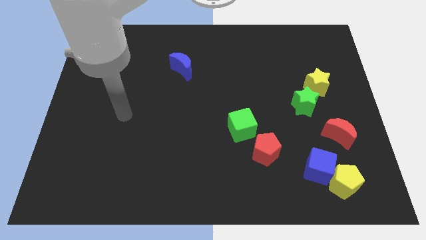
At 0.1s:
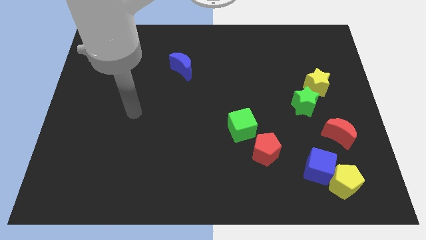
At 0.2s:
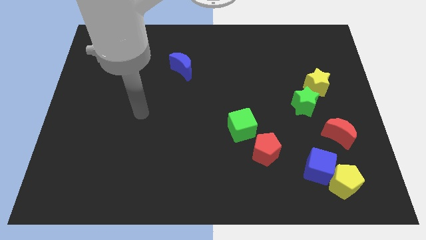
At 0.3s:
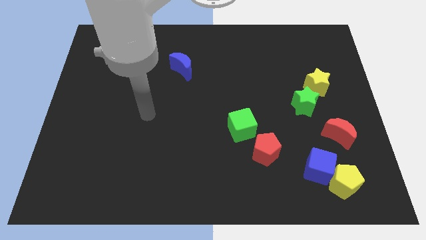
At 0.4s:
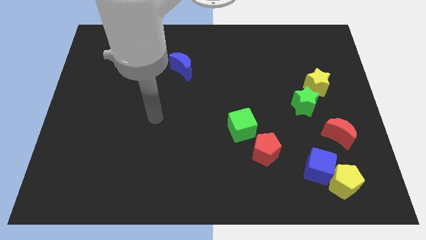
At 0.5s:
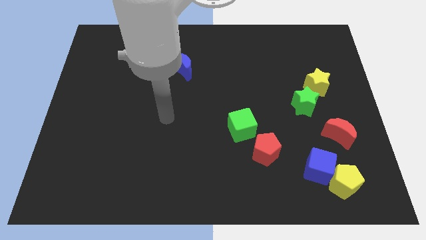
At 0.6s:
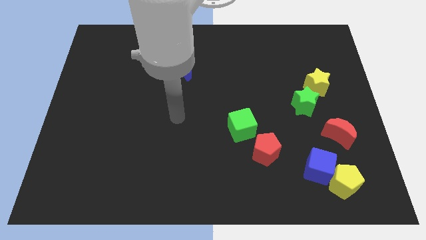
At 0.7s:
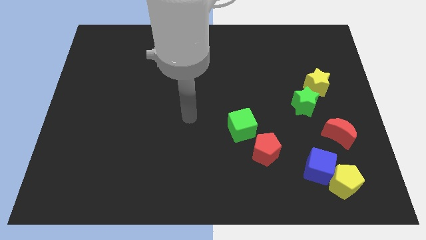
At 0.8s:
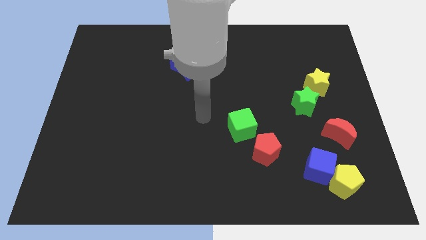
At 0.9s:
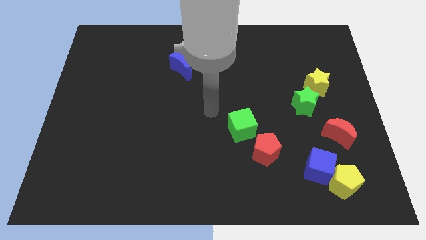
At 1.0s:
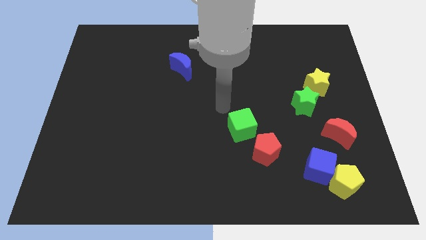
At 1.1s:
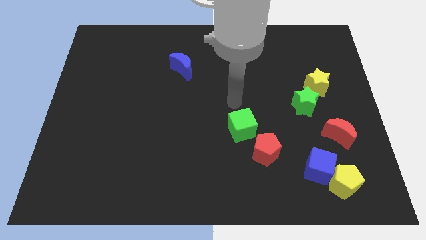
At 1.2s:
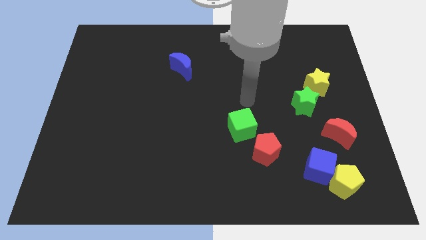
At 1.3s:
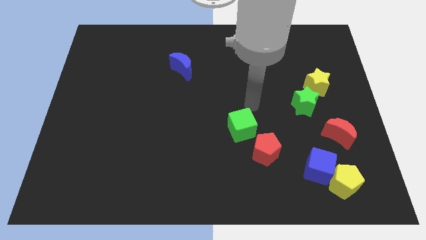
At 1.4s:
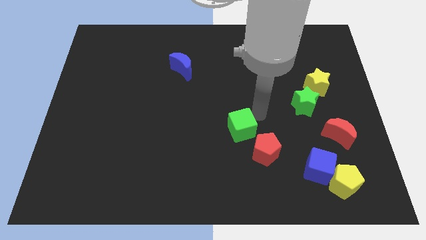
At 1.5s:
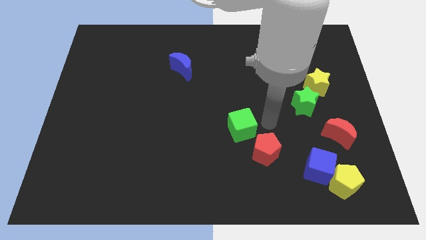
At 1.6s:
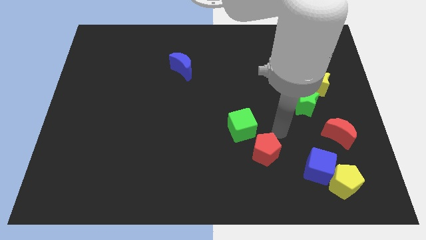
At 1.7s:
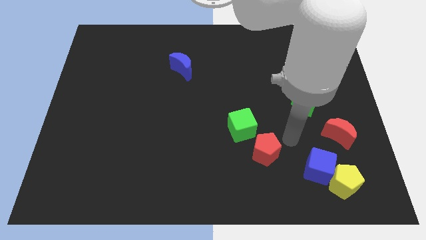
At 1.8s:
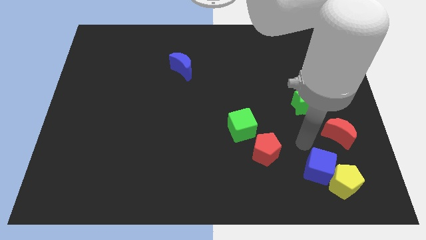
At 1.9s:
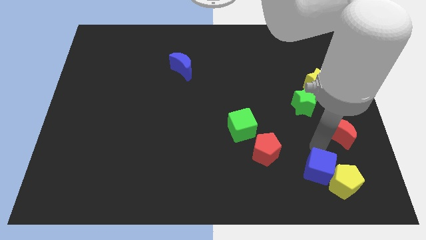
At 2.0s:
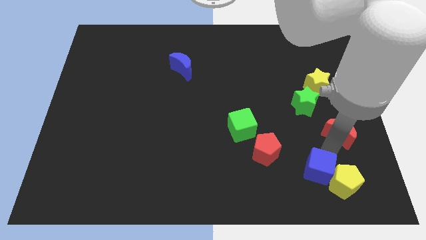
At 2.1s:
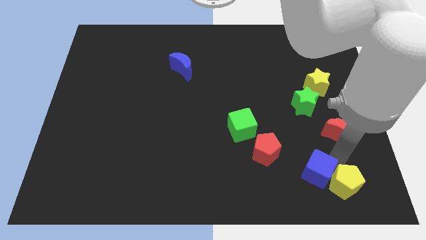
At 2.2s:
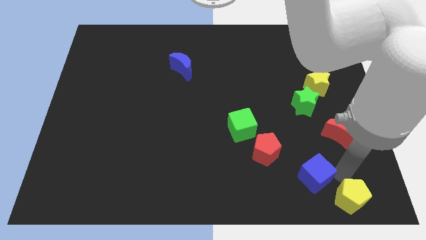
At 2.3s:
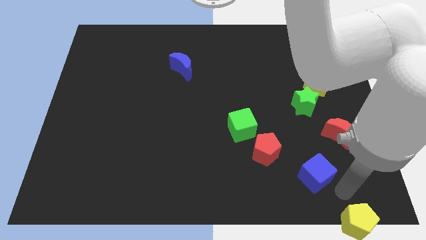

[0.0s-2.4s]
separate the blue cube from the yellow pentagon

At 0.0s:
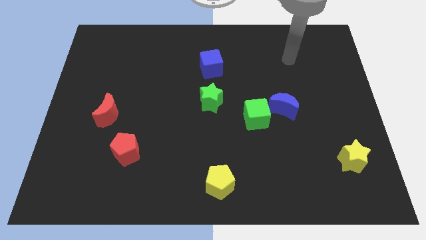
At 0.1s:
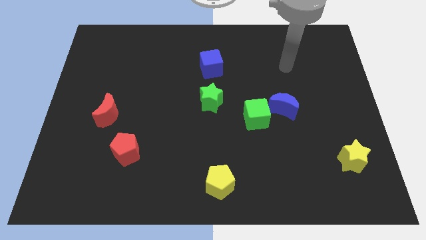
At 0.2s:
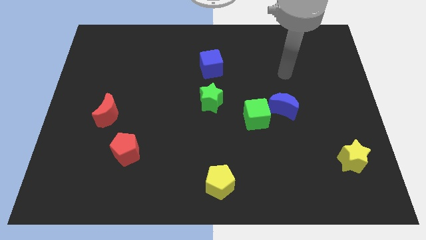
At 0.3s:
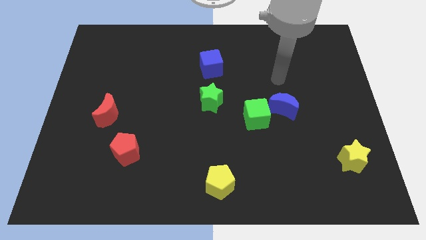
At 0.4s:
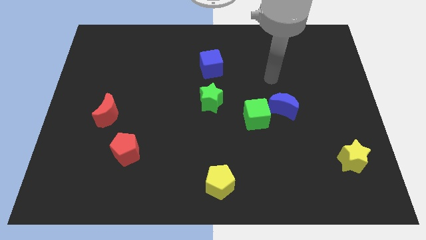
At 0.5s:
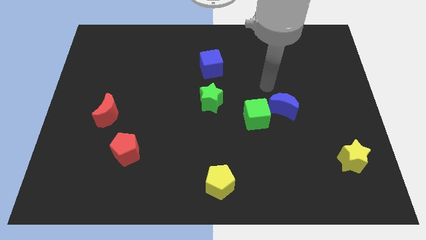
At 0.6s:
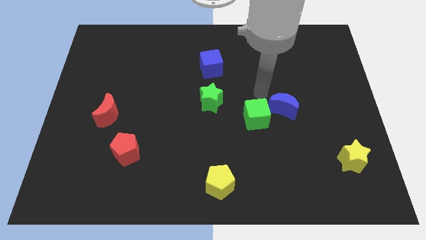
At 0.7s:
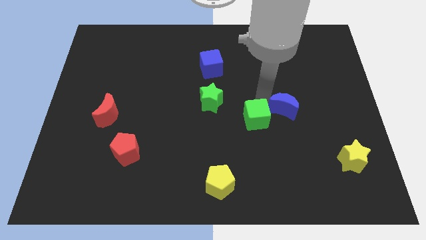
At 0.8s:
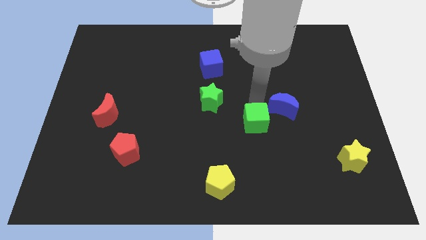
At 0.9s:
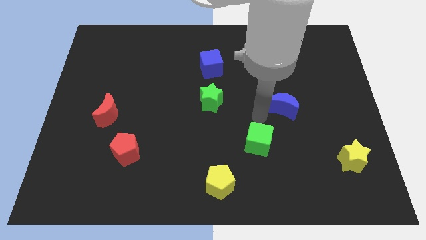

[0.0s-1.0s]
move the blue moon away from the green cube

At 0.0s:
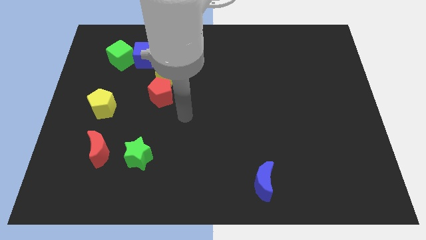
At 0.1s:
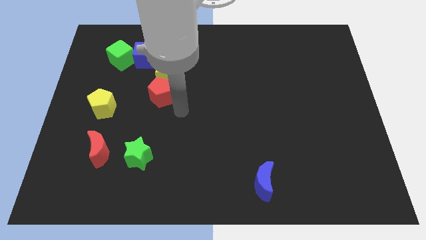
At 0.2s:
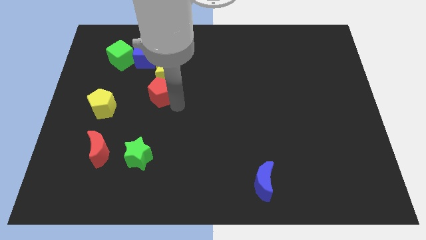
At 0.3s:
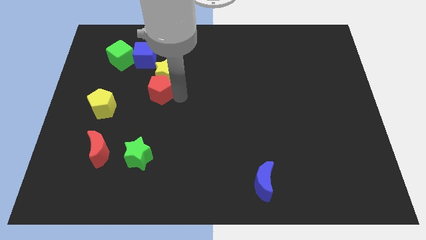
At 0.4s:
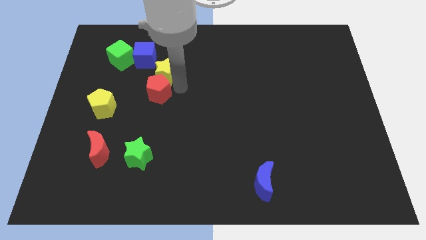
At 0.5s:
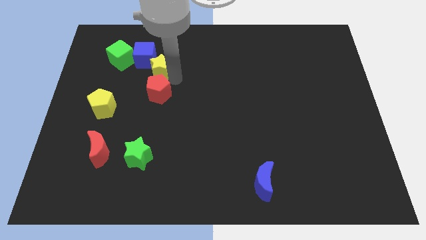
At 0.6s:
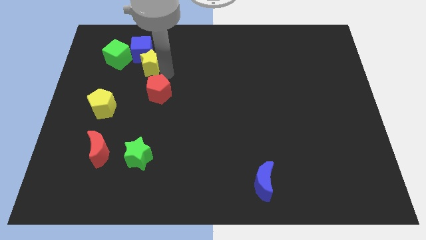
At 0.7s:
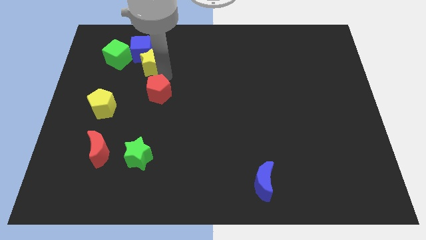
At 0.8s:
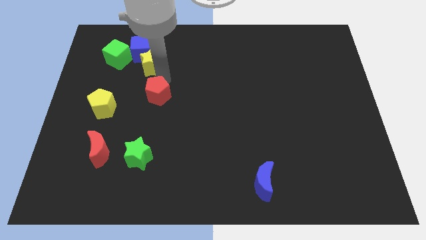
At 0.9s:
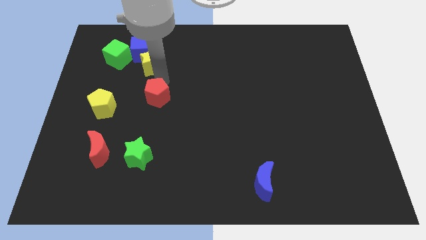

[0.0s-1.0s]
separate the red pentagon from the yellow star

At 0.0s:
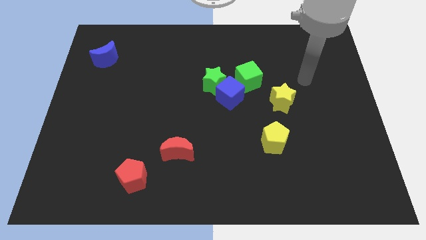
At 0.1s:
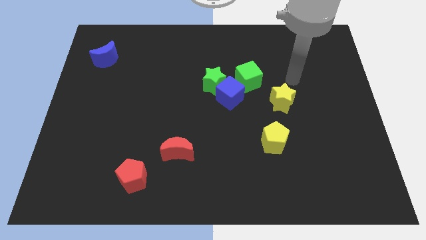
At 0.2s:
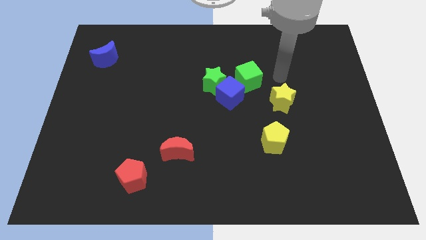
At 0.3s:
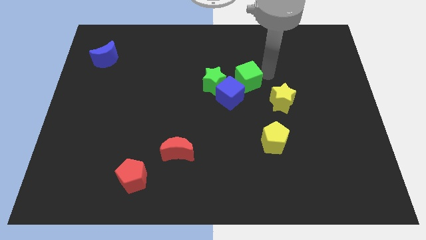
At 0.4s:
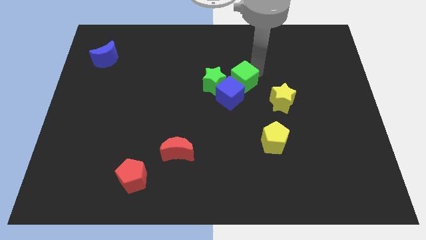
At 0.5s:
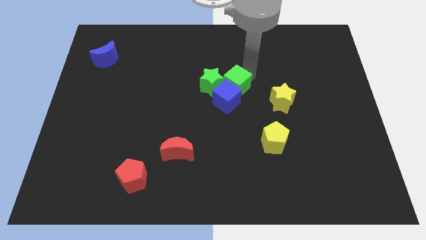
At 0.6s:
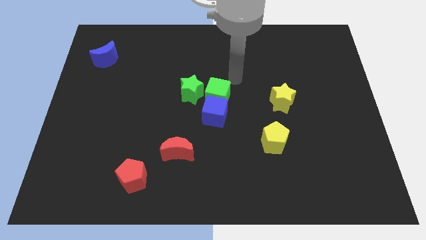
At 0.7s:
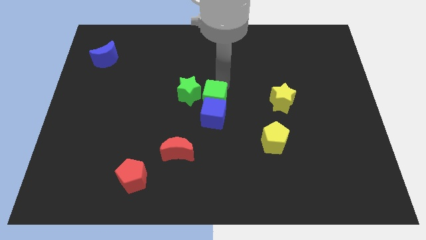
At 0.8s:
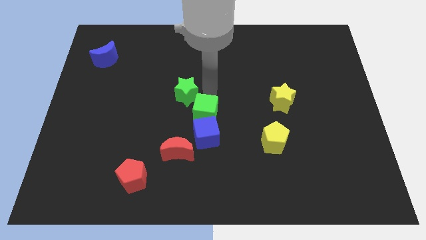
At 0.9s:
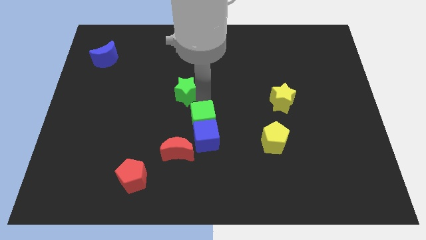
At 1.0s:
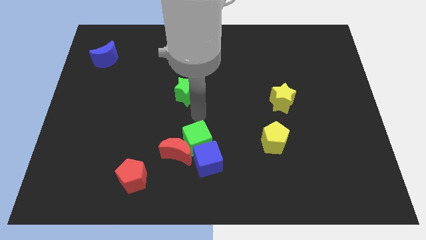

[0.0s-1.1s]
separate the blue cube from the green star and green cube

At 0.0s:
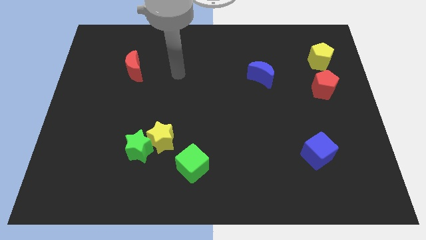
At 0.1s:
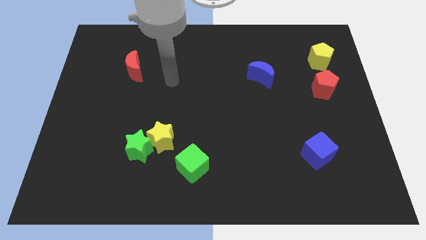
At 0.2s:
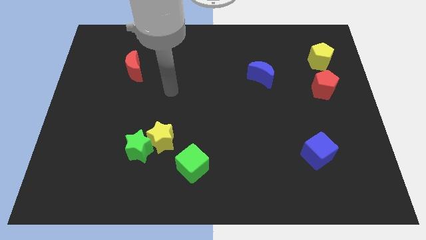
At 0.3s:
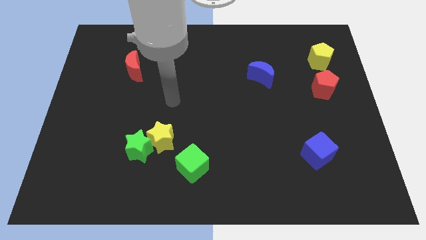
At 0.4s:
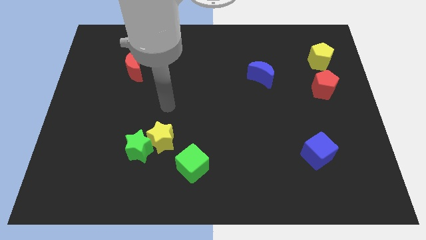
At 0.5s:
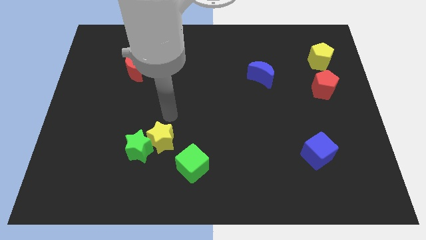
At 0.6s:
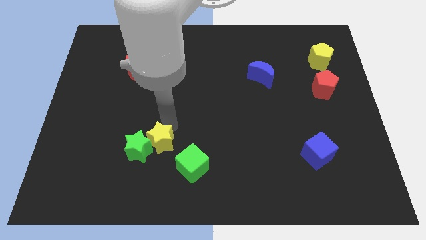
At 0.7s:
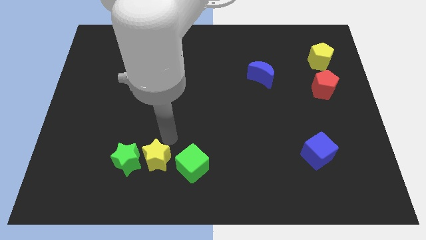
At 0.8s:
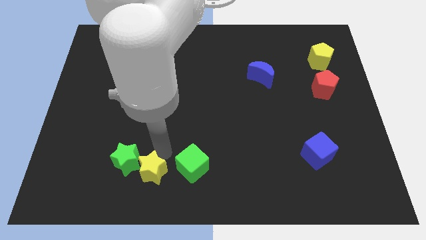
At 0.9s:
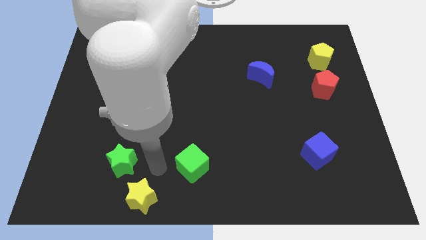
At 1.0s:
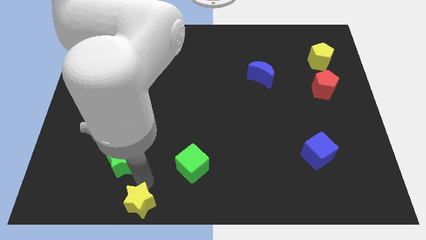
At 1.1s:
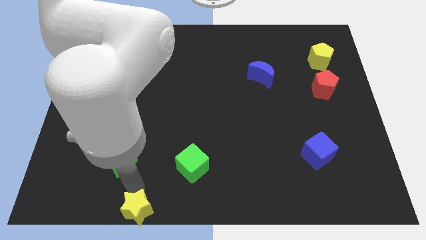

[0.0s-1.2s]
separate the green star from the yellow star

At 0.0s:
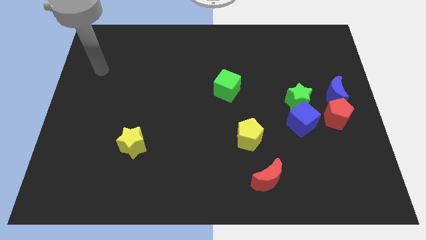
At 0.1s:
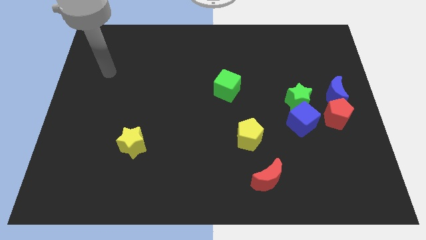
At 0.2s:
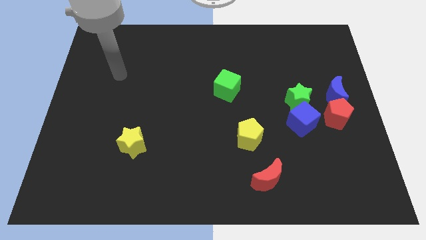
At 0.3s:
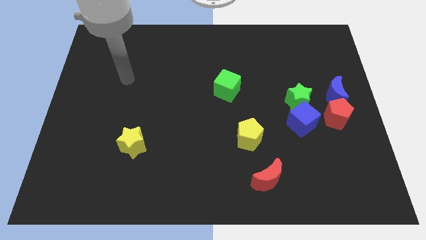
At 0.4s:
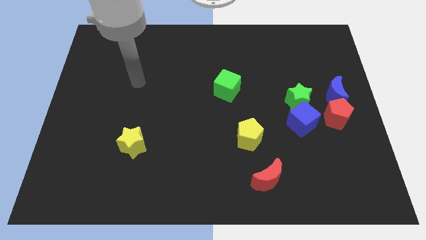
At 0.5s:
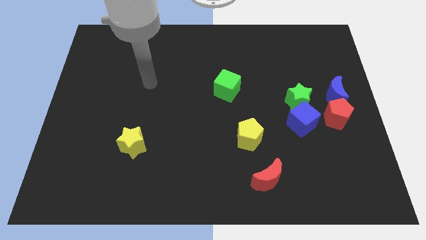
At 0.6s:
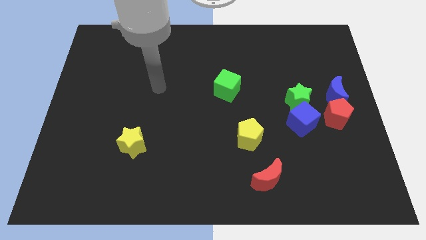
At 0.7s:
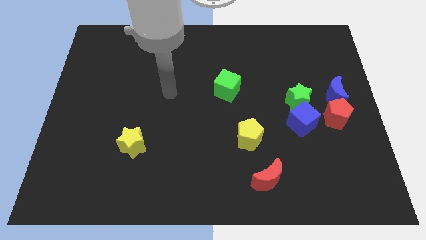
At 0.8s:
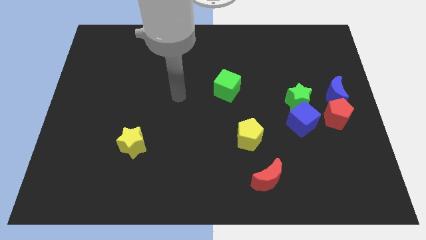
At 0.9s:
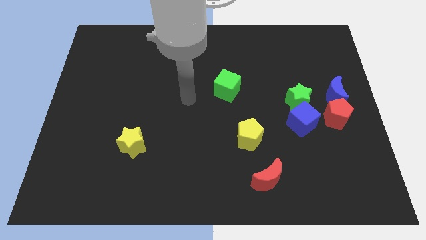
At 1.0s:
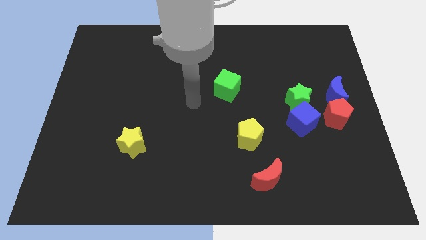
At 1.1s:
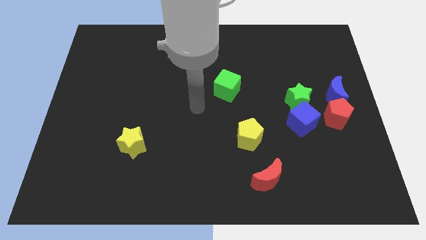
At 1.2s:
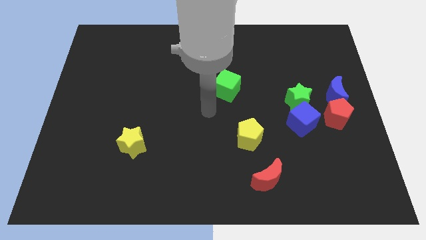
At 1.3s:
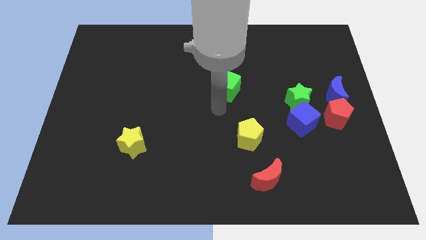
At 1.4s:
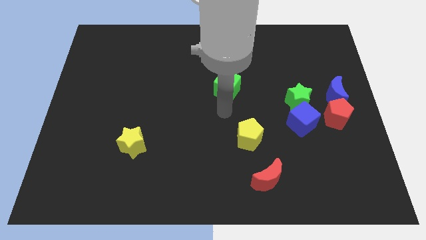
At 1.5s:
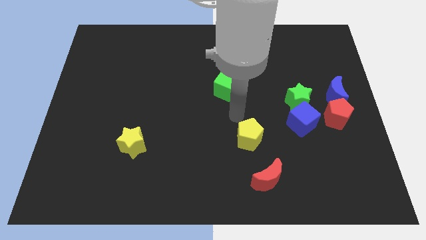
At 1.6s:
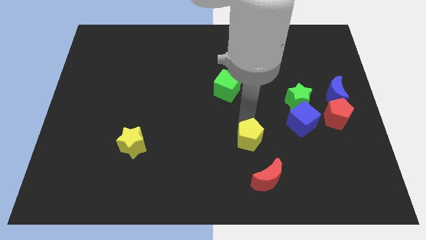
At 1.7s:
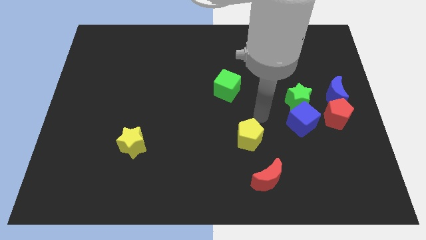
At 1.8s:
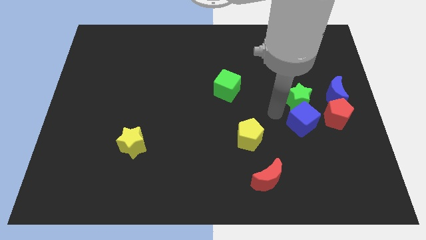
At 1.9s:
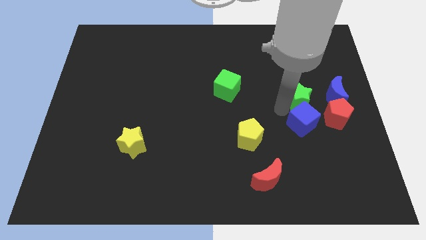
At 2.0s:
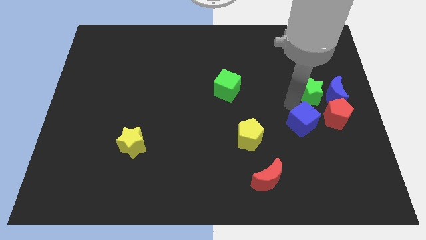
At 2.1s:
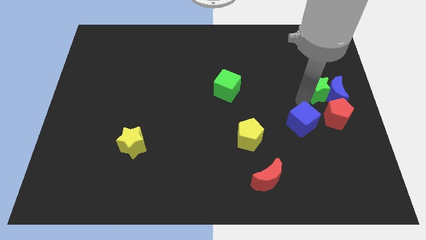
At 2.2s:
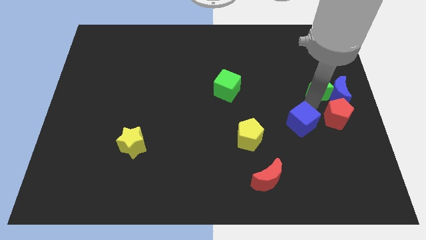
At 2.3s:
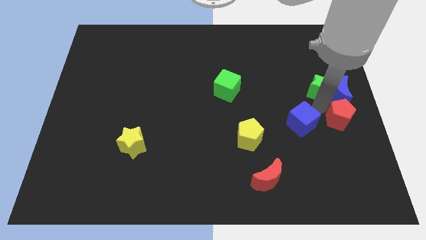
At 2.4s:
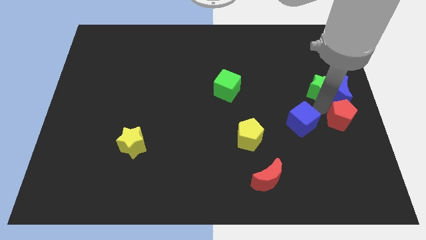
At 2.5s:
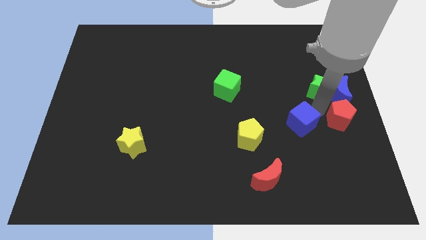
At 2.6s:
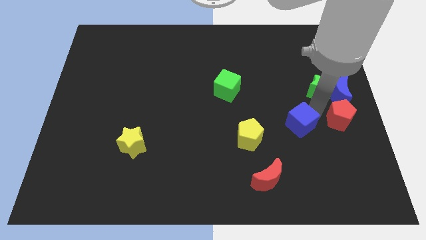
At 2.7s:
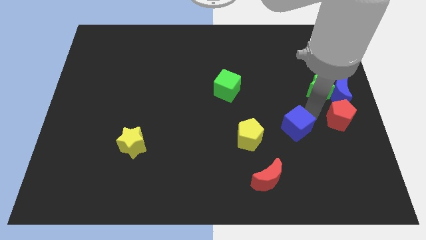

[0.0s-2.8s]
pull the blue cube apart from the green star and red pentagon
